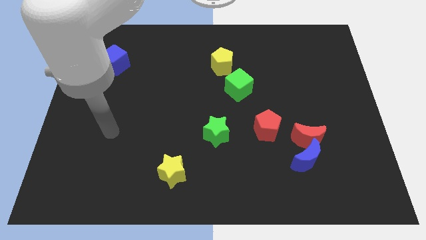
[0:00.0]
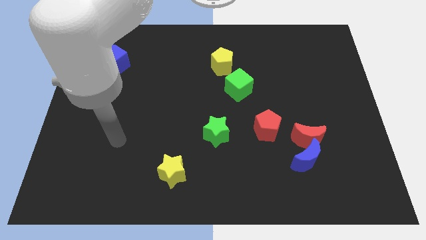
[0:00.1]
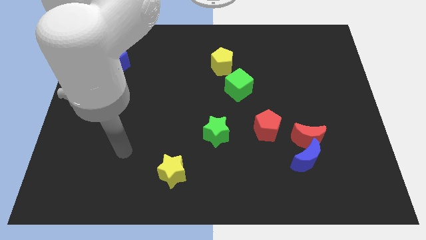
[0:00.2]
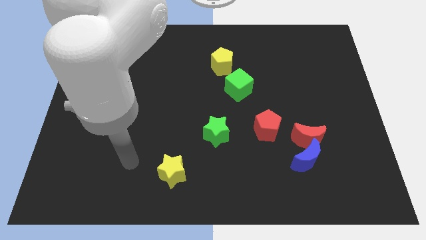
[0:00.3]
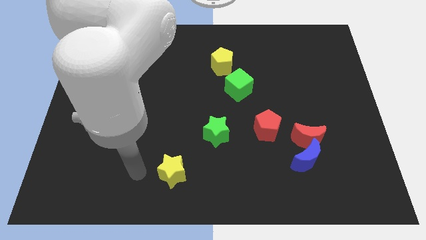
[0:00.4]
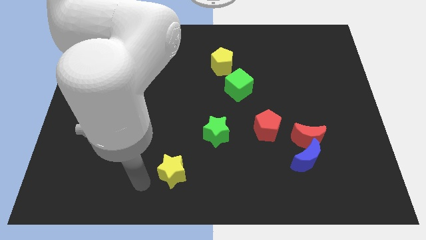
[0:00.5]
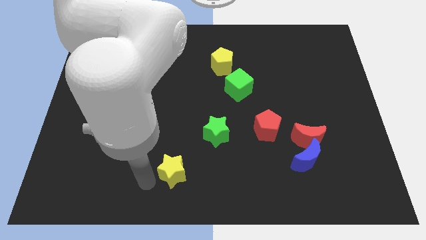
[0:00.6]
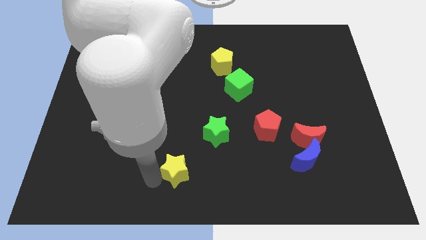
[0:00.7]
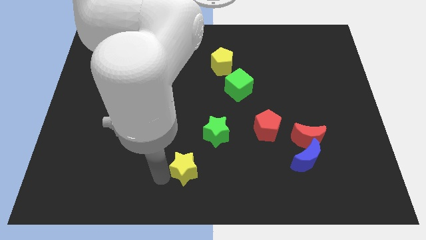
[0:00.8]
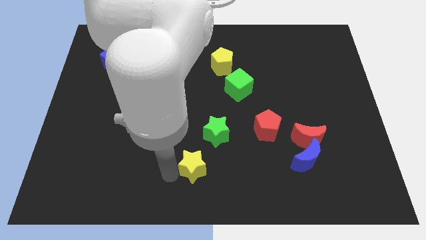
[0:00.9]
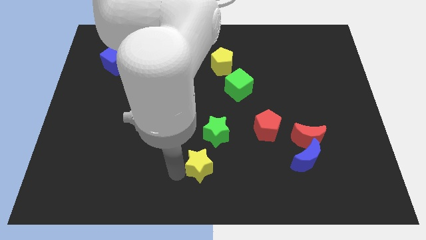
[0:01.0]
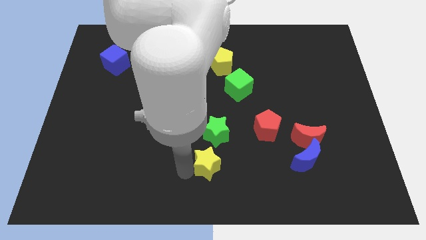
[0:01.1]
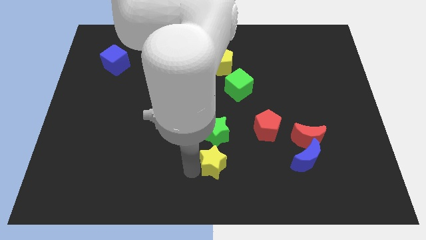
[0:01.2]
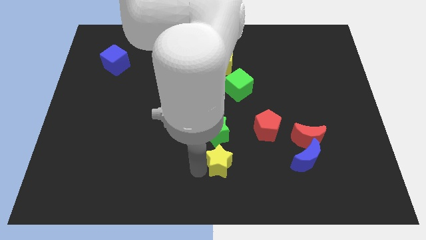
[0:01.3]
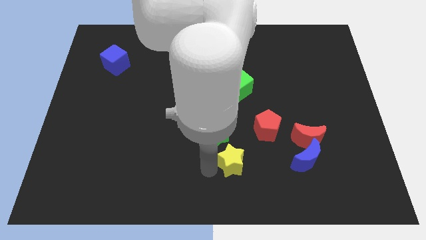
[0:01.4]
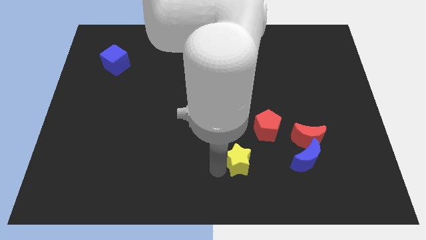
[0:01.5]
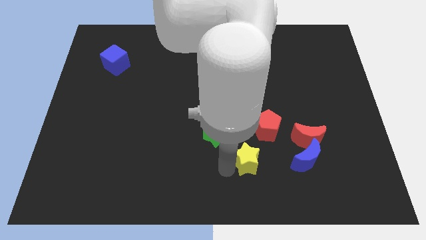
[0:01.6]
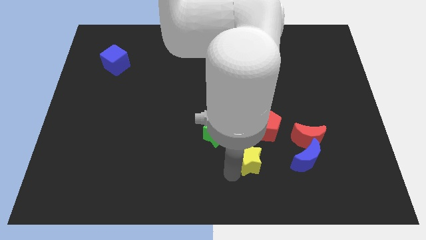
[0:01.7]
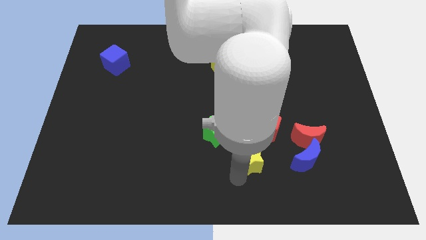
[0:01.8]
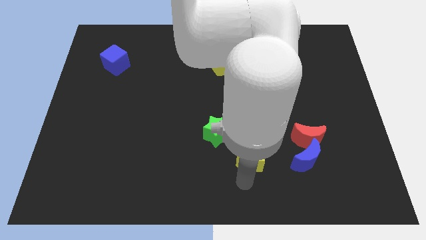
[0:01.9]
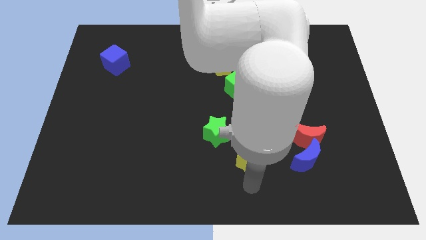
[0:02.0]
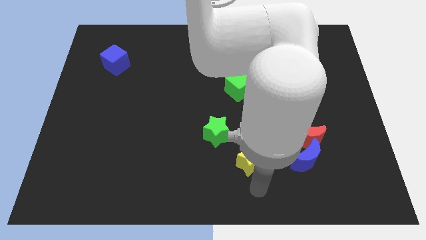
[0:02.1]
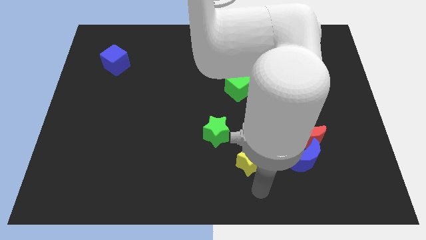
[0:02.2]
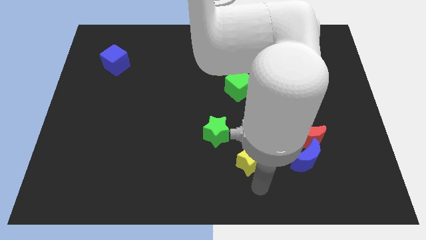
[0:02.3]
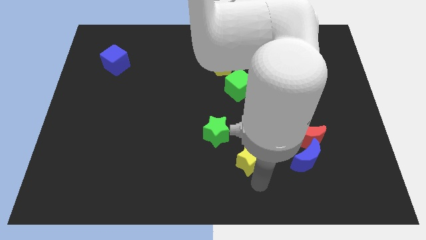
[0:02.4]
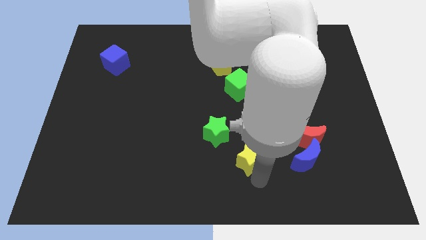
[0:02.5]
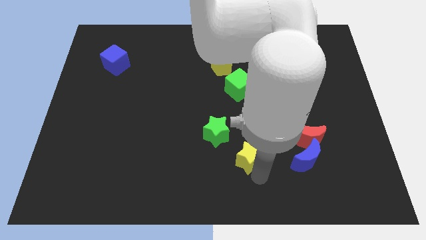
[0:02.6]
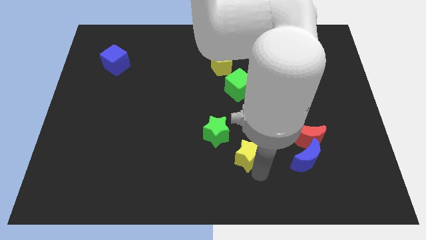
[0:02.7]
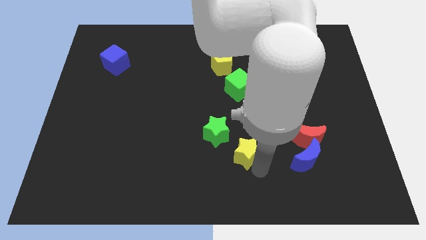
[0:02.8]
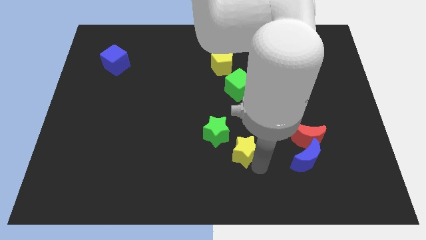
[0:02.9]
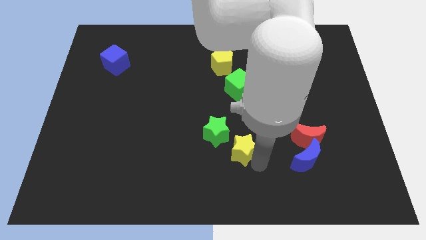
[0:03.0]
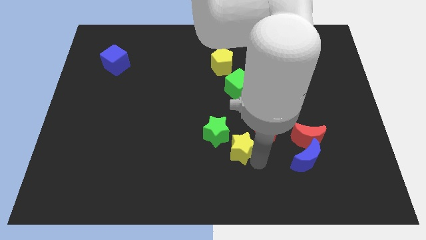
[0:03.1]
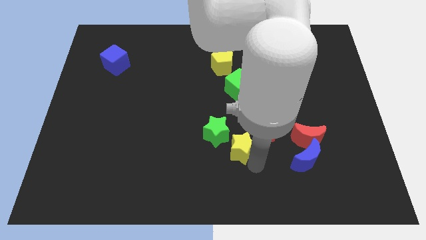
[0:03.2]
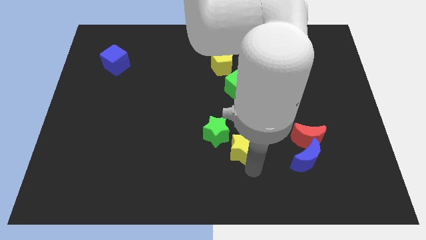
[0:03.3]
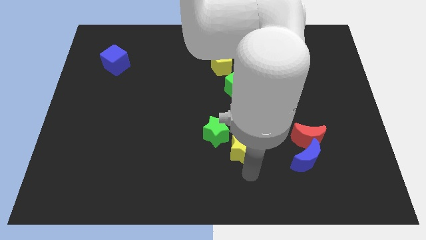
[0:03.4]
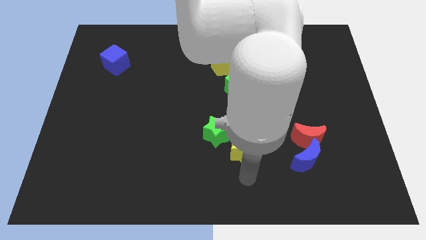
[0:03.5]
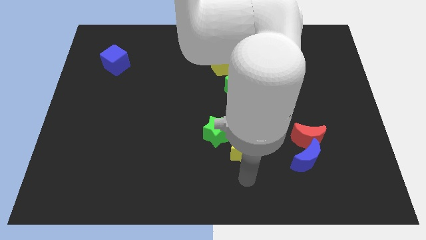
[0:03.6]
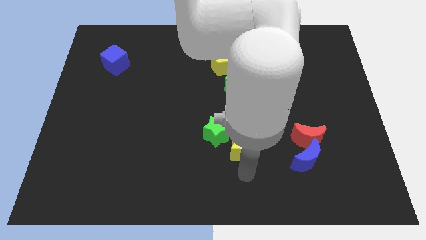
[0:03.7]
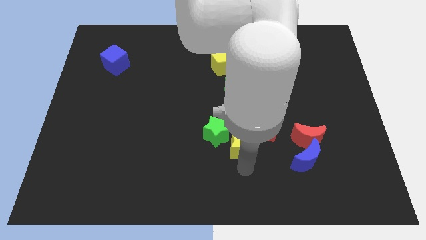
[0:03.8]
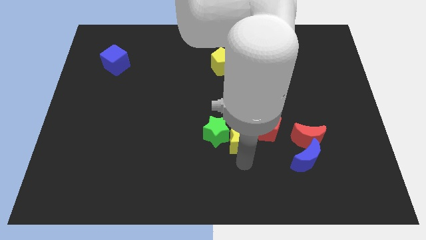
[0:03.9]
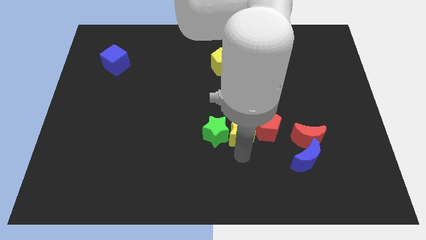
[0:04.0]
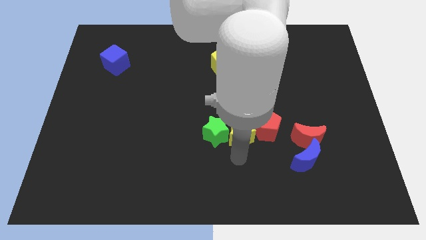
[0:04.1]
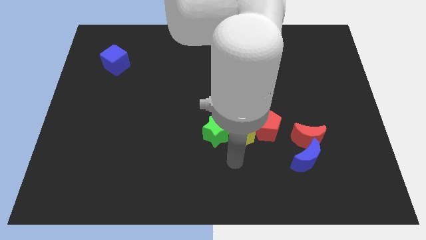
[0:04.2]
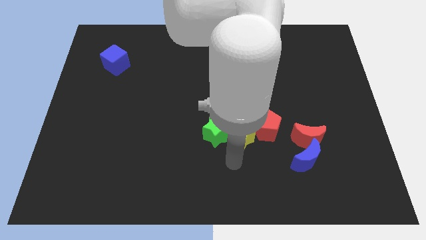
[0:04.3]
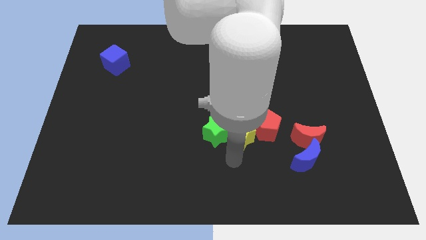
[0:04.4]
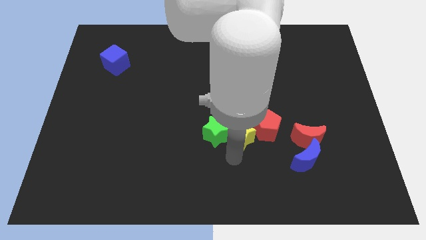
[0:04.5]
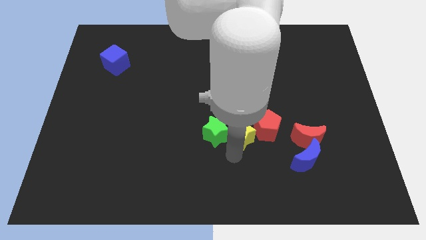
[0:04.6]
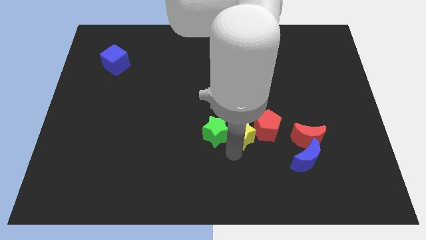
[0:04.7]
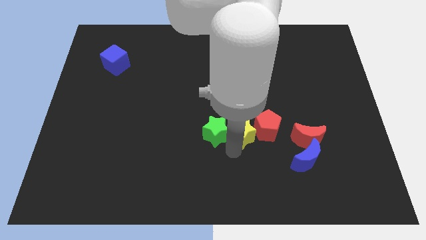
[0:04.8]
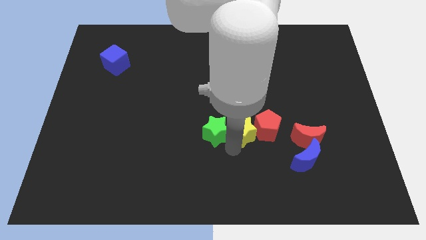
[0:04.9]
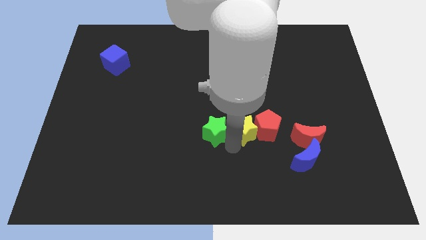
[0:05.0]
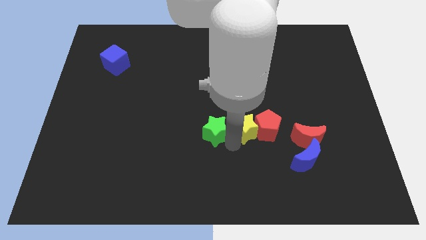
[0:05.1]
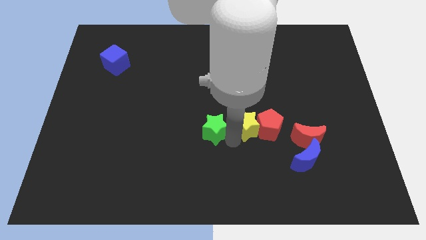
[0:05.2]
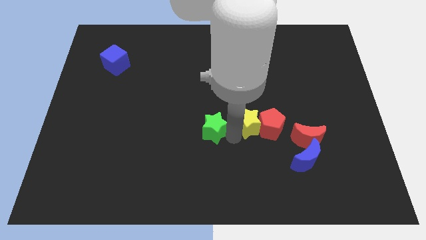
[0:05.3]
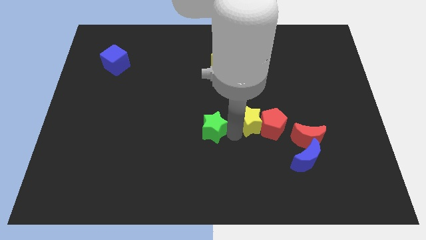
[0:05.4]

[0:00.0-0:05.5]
move the yellow star up and right diagonally

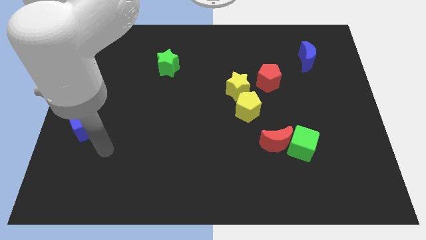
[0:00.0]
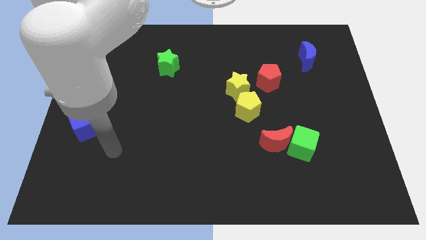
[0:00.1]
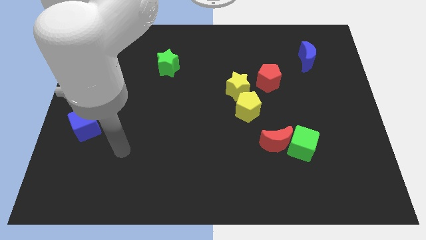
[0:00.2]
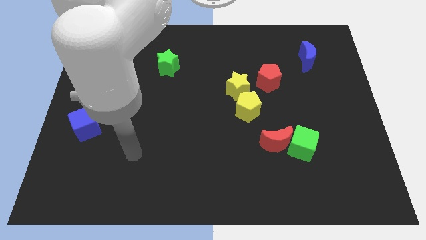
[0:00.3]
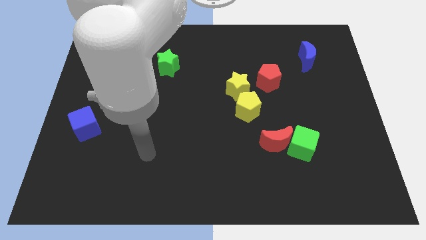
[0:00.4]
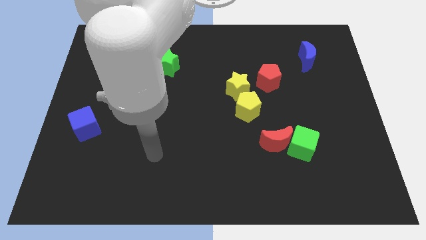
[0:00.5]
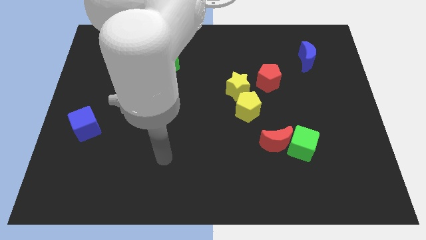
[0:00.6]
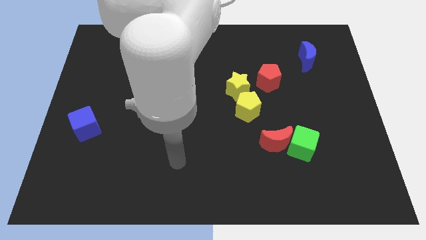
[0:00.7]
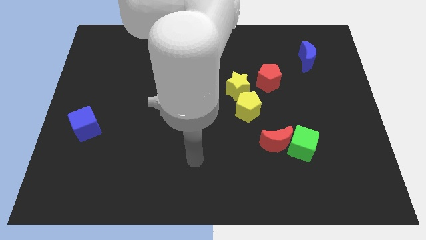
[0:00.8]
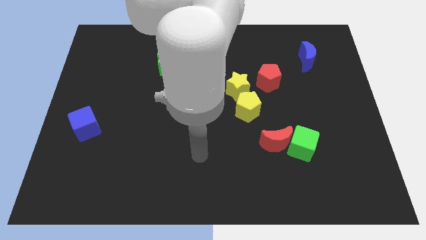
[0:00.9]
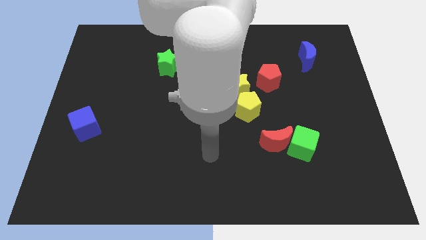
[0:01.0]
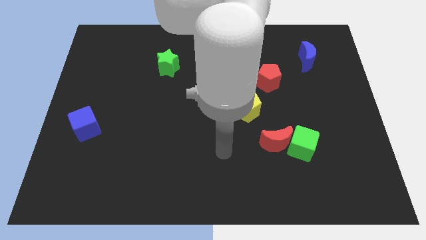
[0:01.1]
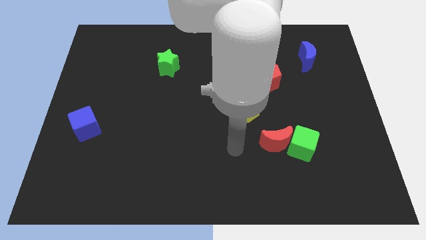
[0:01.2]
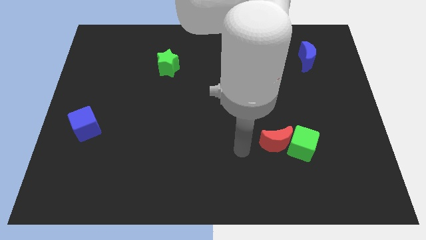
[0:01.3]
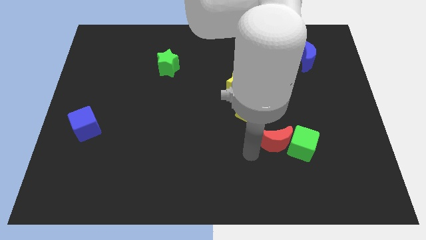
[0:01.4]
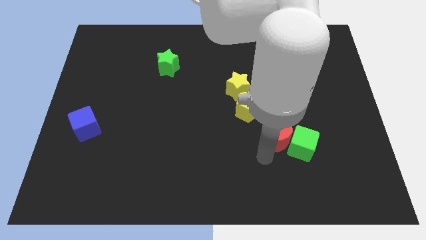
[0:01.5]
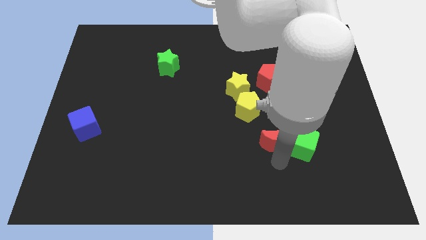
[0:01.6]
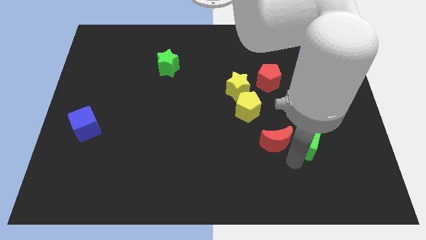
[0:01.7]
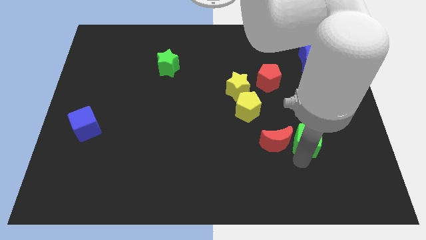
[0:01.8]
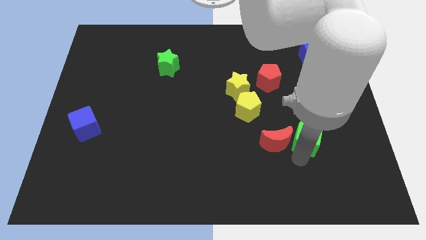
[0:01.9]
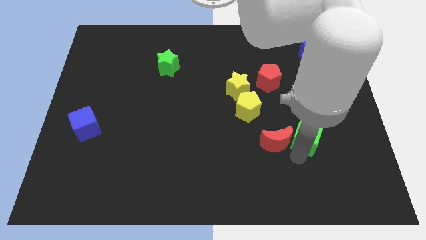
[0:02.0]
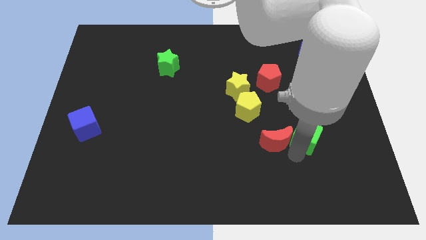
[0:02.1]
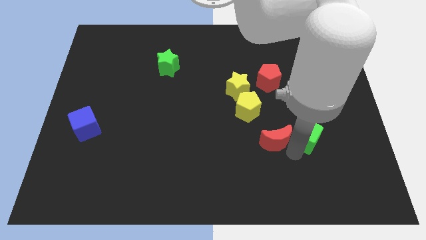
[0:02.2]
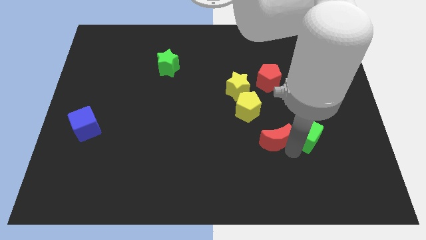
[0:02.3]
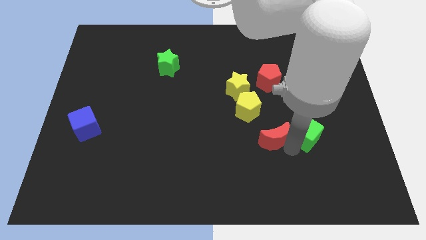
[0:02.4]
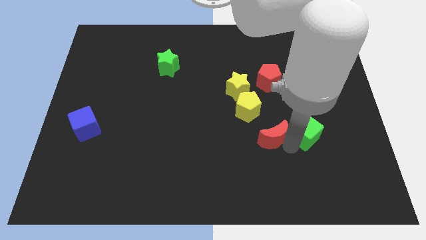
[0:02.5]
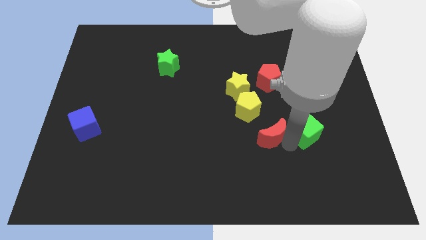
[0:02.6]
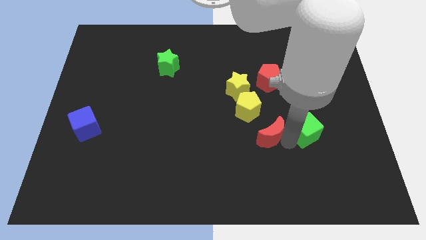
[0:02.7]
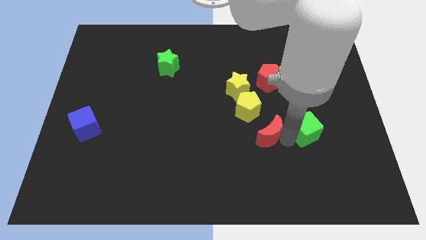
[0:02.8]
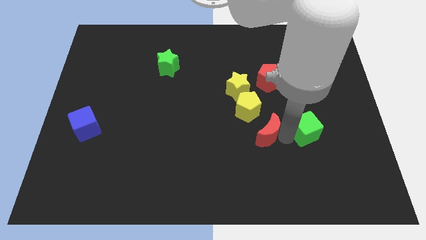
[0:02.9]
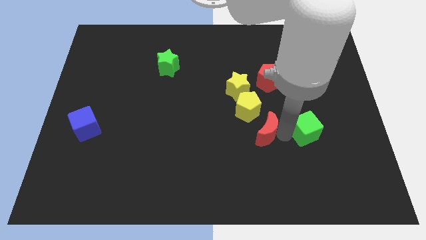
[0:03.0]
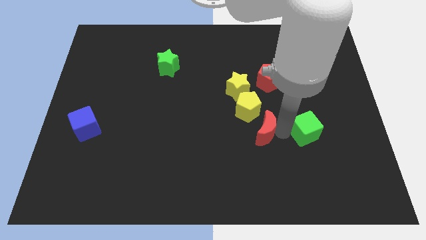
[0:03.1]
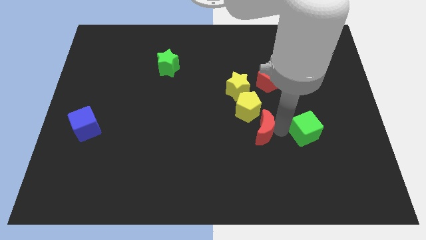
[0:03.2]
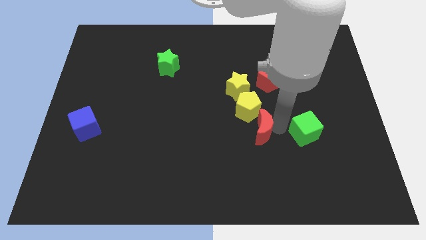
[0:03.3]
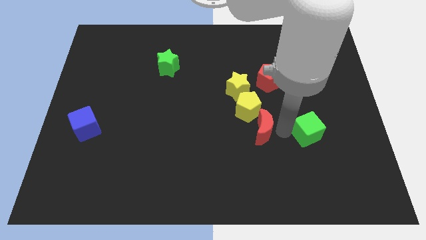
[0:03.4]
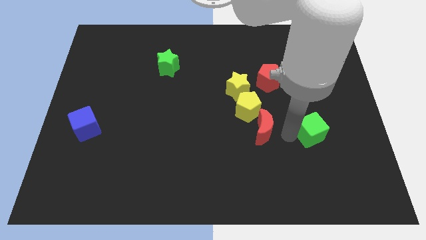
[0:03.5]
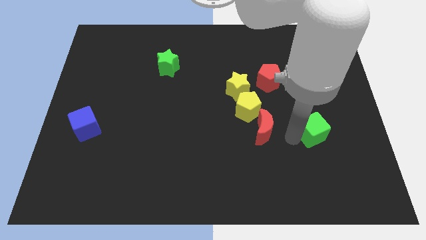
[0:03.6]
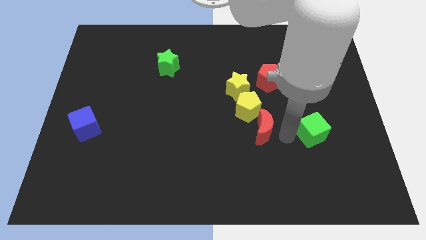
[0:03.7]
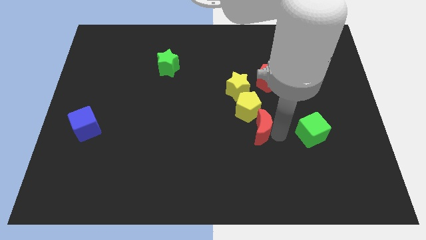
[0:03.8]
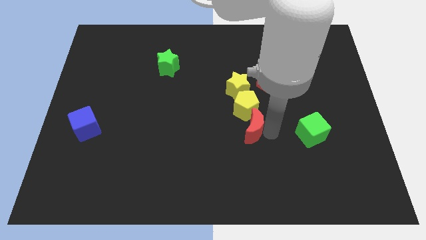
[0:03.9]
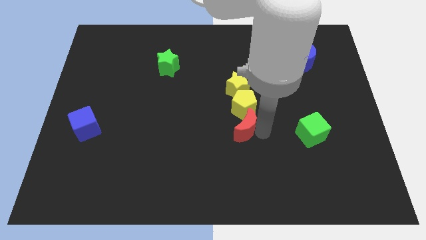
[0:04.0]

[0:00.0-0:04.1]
slightly slide the red moon diagonally upwards and left
